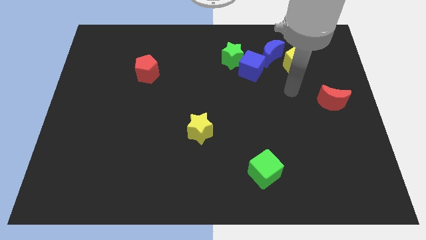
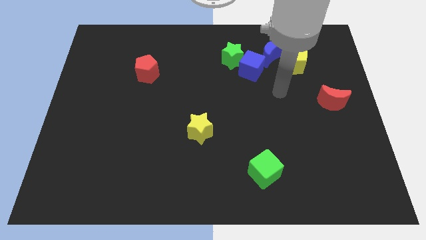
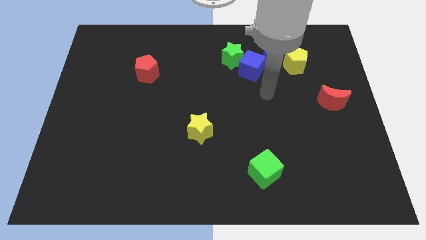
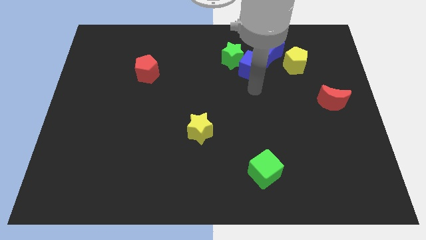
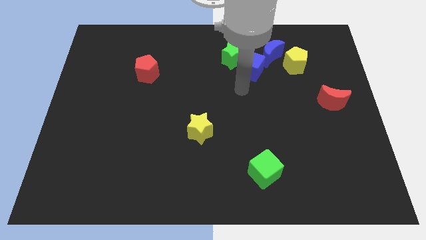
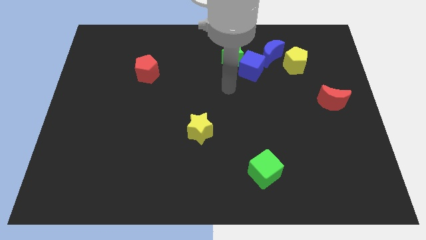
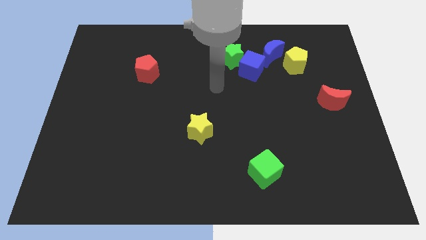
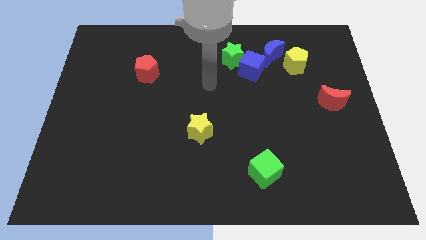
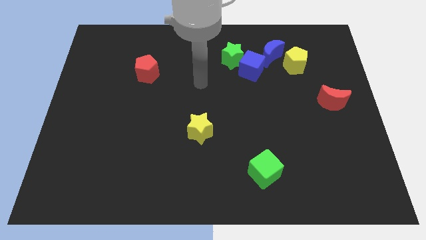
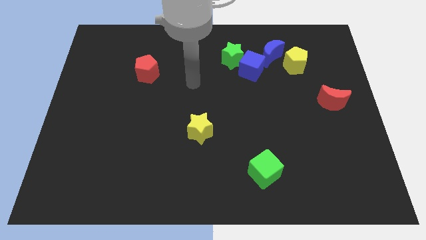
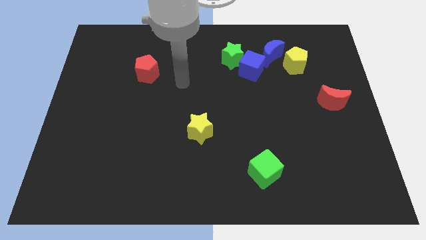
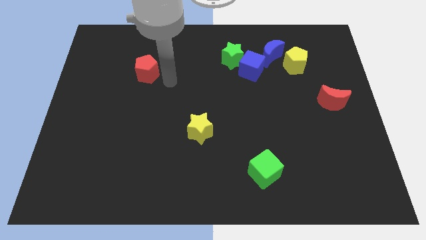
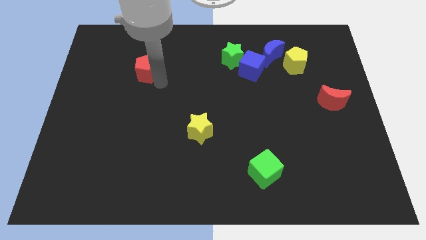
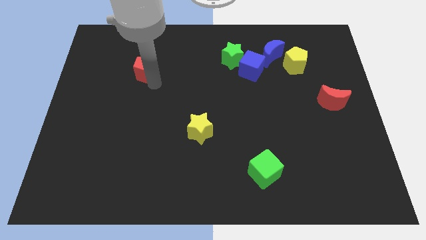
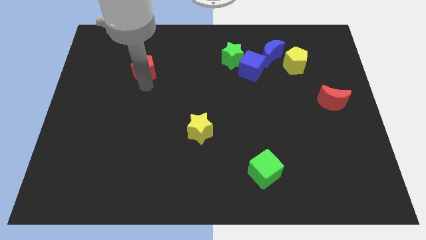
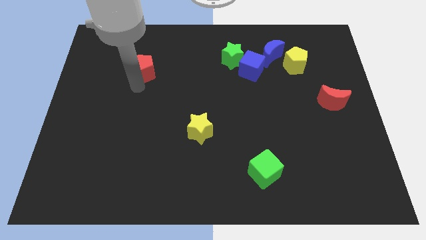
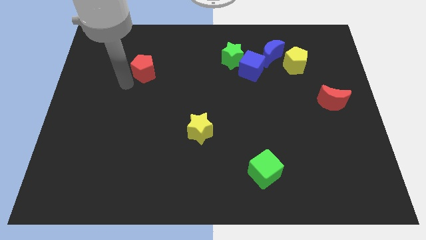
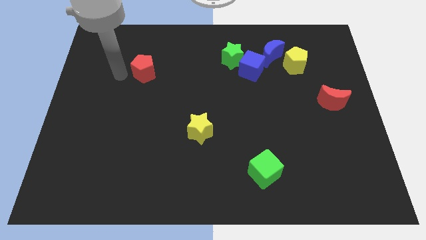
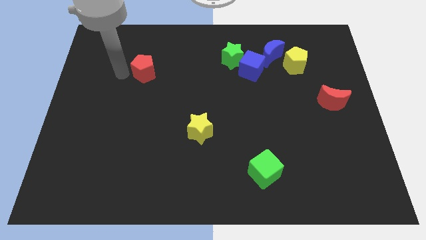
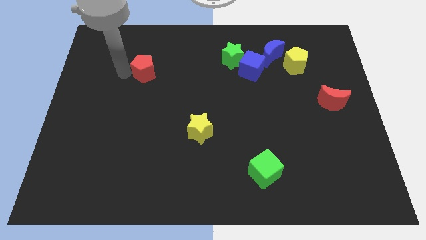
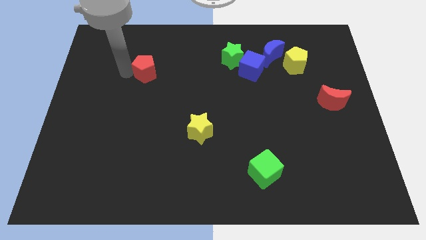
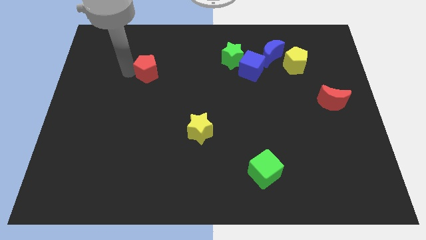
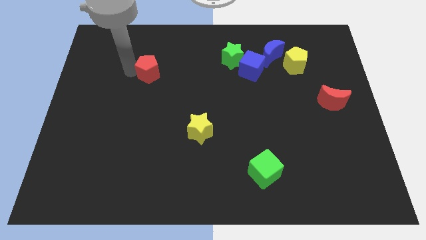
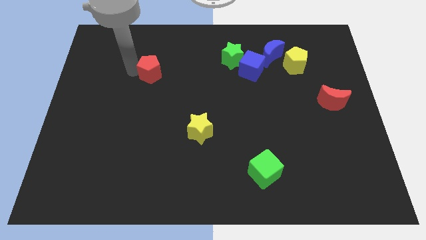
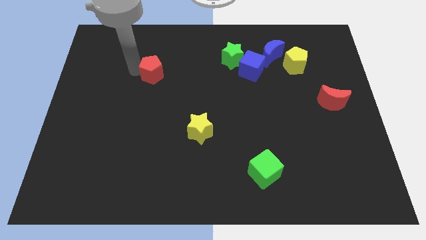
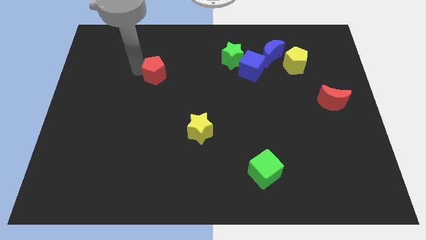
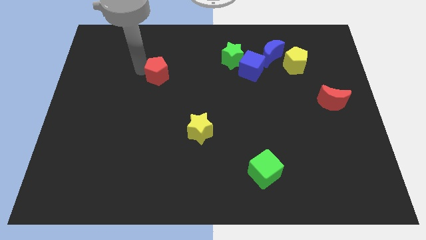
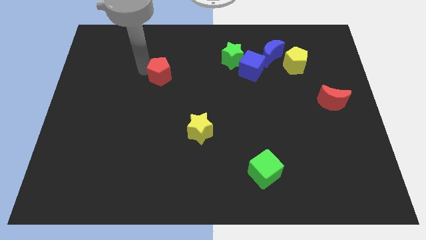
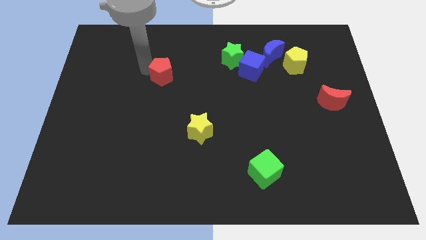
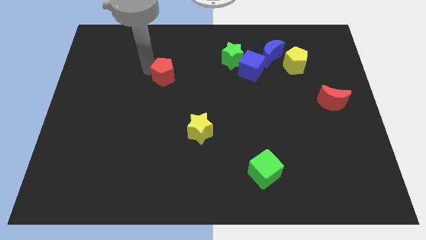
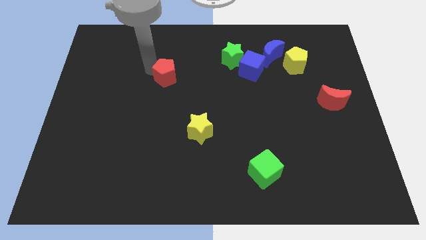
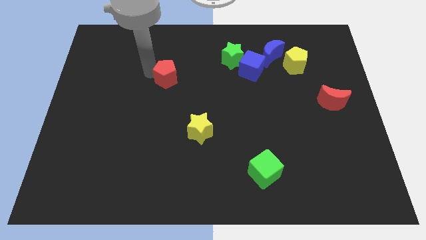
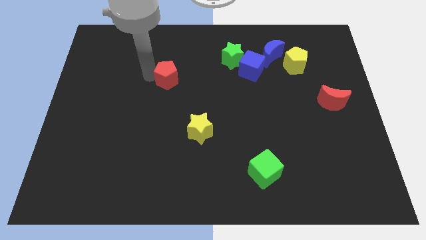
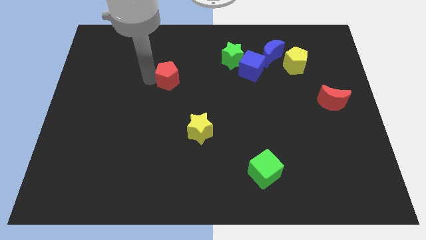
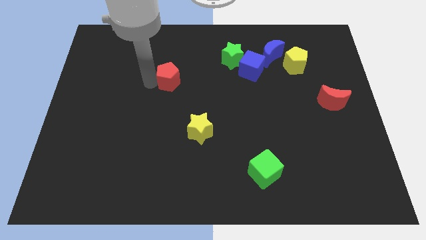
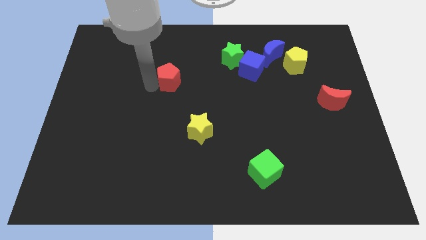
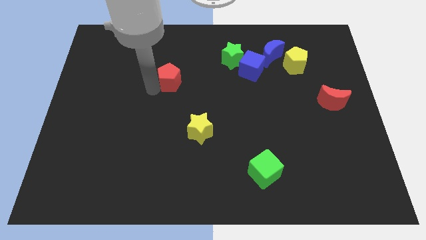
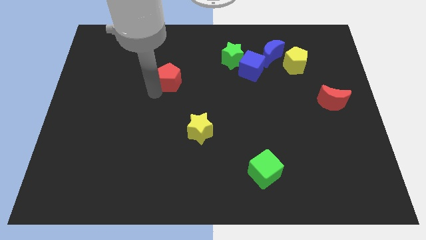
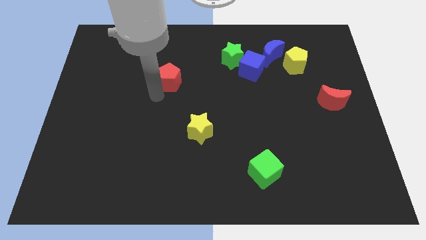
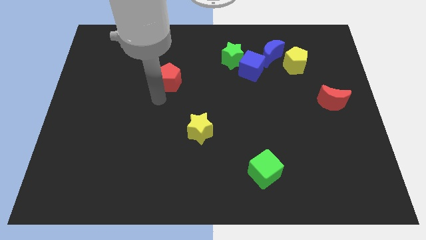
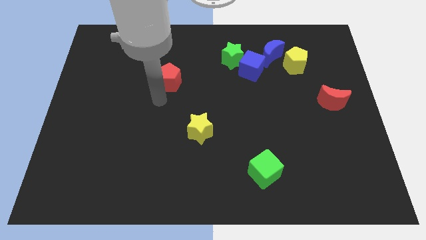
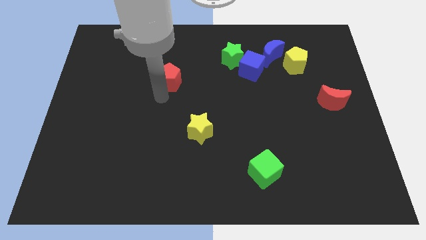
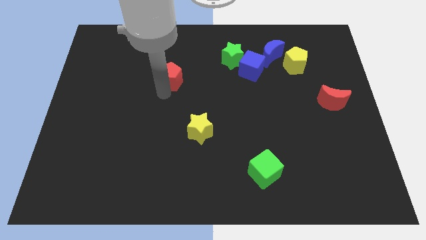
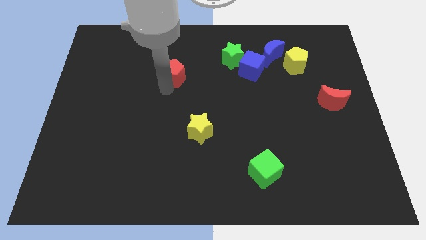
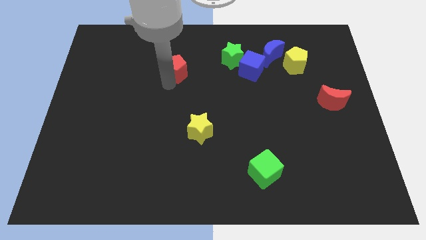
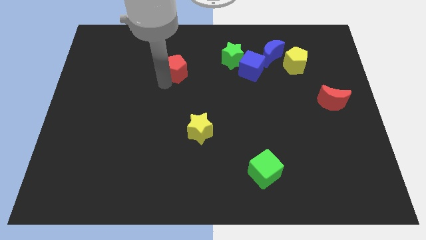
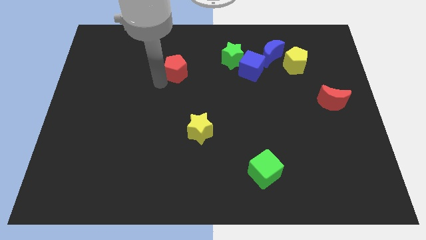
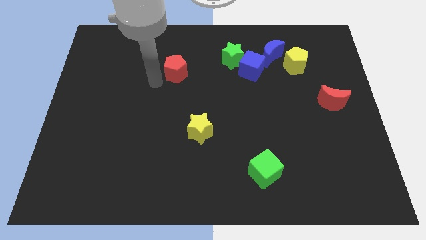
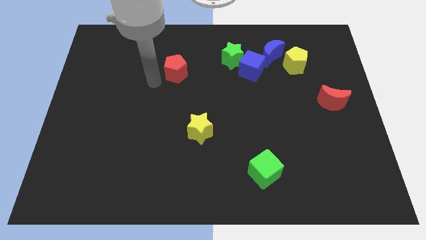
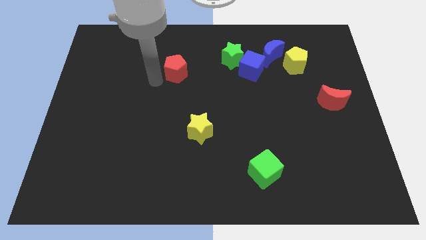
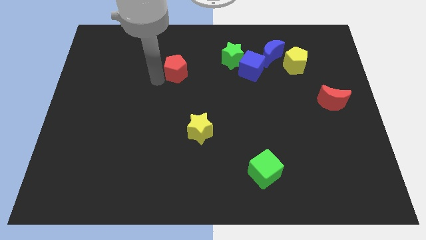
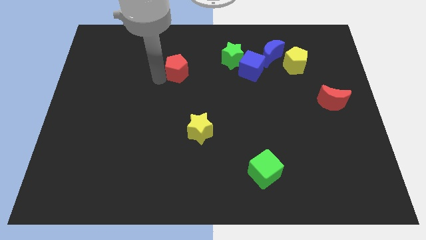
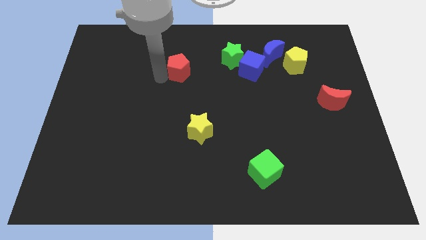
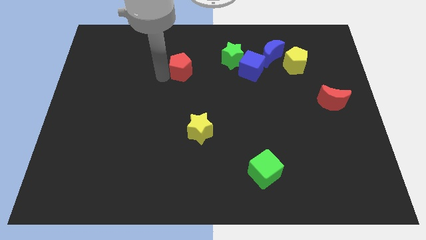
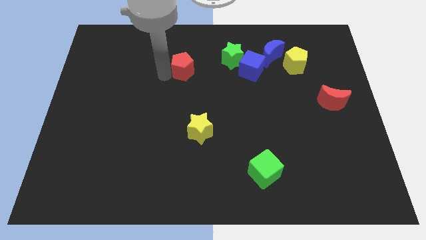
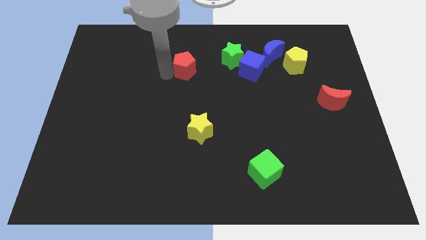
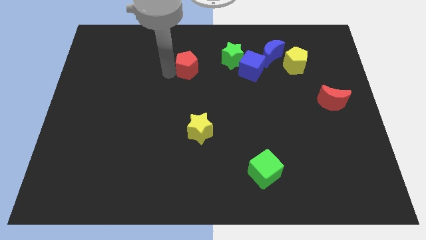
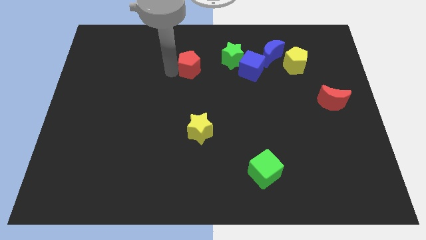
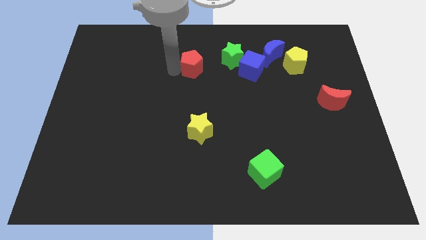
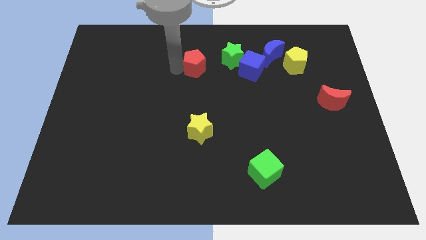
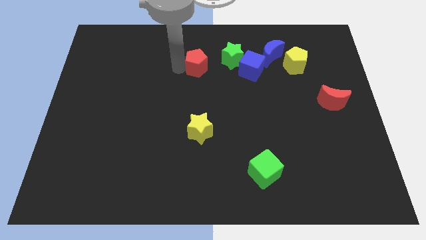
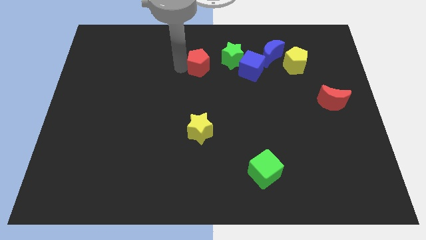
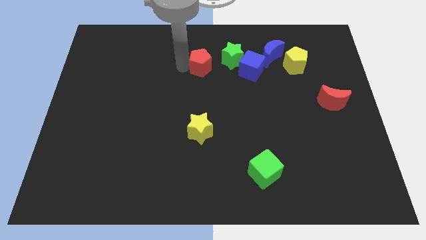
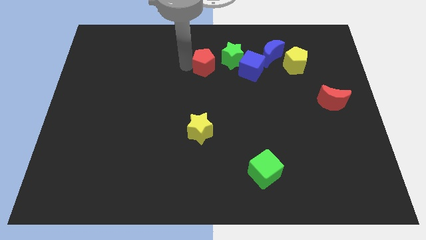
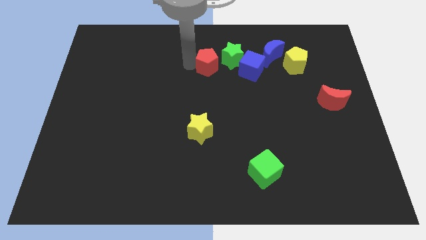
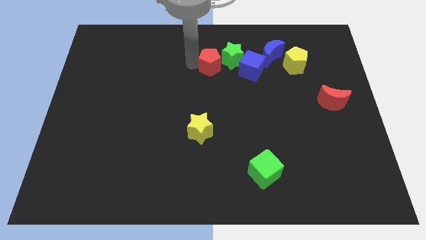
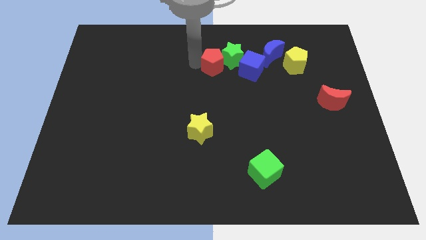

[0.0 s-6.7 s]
slide the red pentagon to the green star
